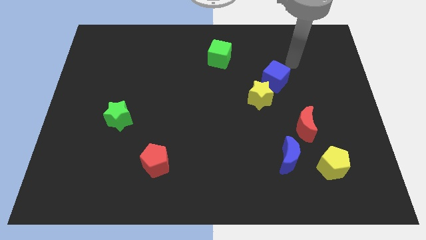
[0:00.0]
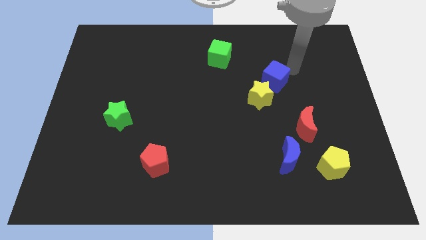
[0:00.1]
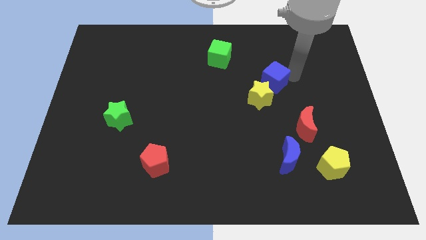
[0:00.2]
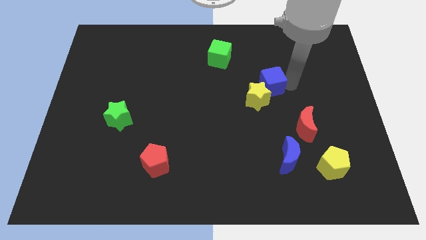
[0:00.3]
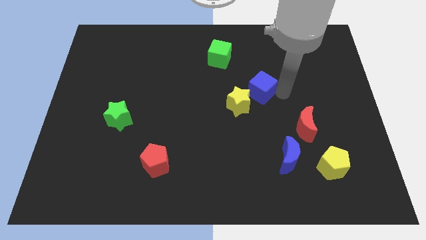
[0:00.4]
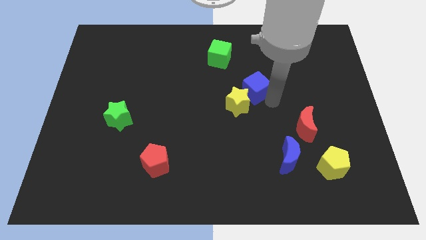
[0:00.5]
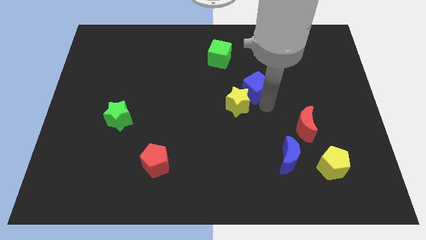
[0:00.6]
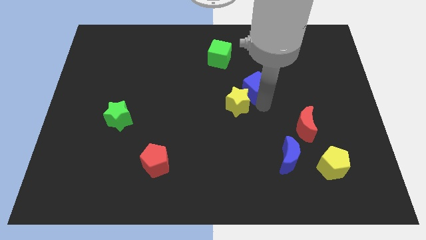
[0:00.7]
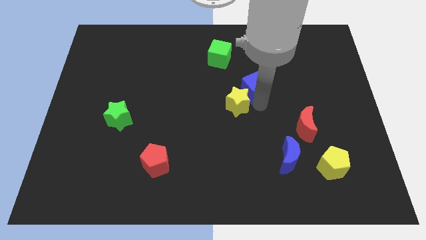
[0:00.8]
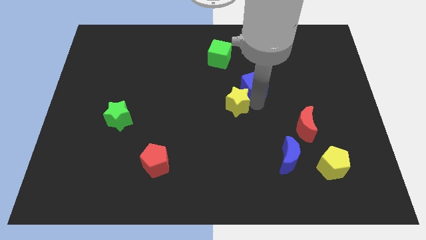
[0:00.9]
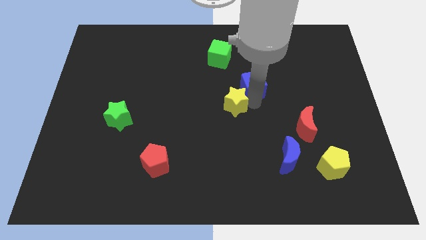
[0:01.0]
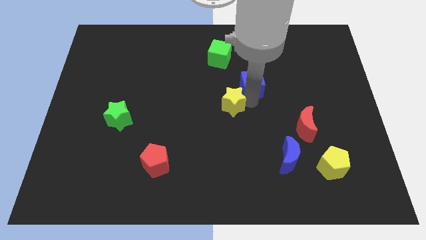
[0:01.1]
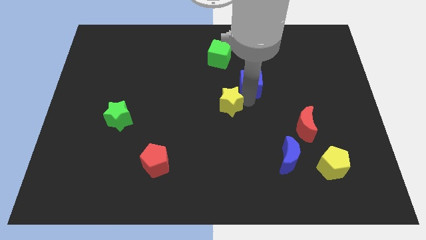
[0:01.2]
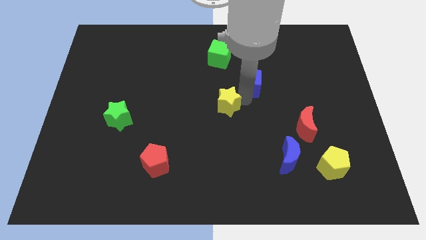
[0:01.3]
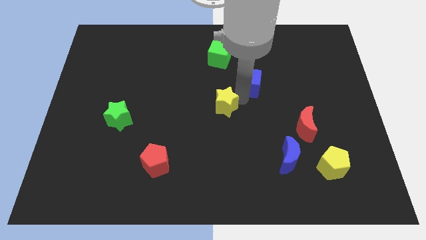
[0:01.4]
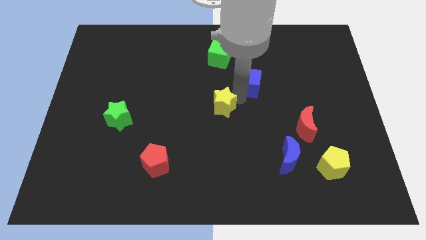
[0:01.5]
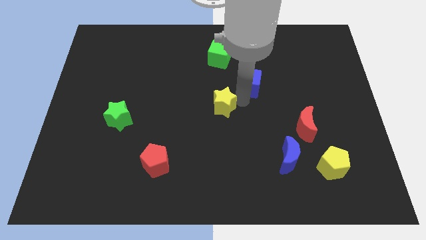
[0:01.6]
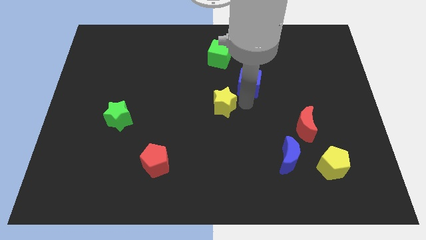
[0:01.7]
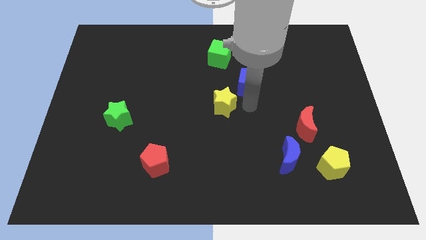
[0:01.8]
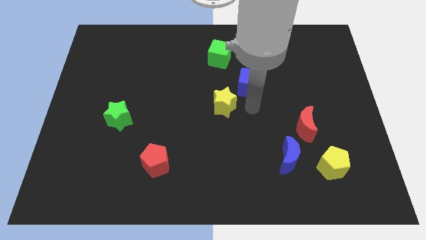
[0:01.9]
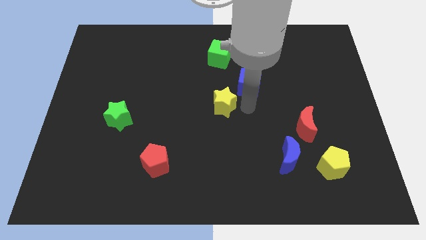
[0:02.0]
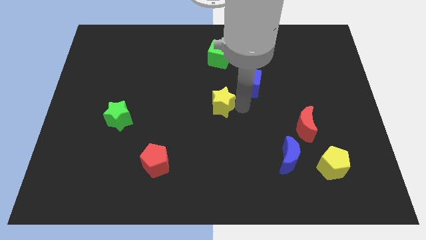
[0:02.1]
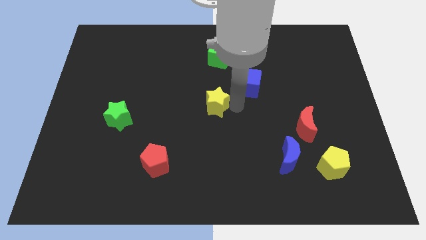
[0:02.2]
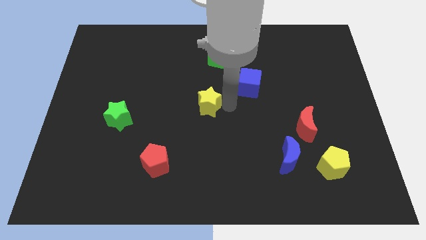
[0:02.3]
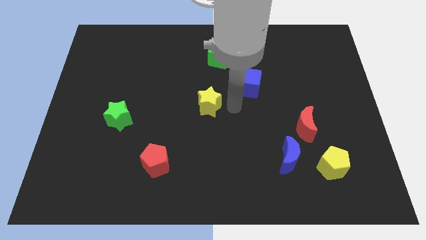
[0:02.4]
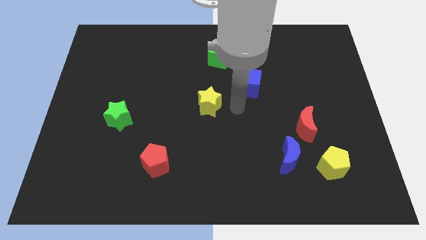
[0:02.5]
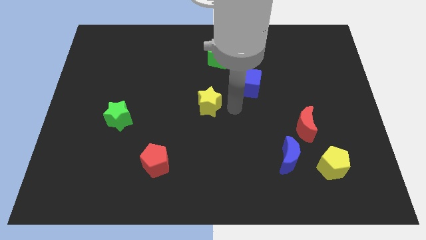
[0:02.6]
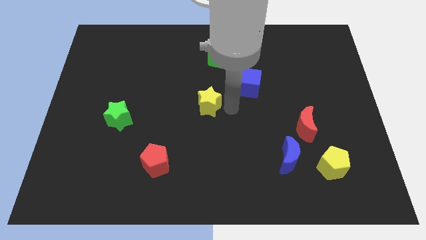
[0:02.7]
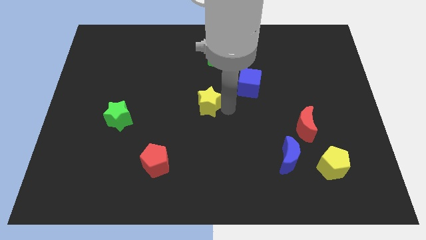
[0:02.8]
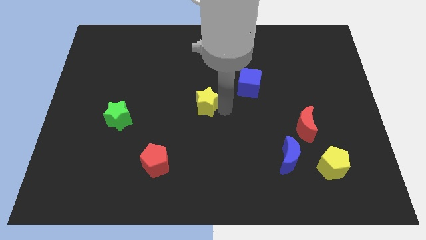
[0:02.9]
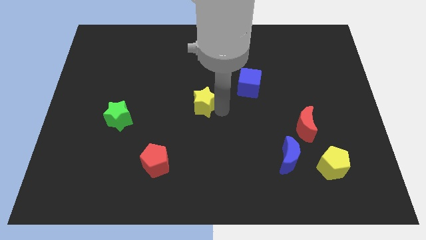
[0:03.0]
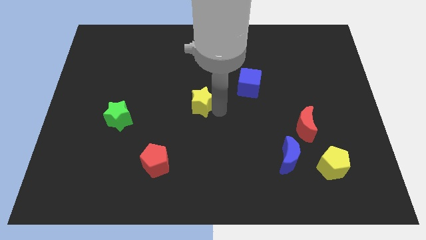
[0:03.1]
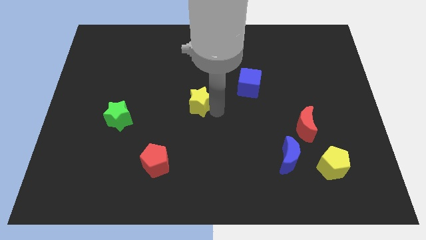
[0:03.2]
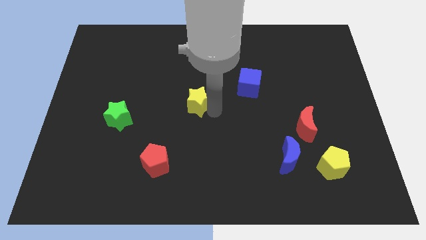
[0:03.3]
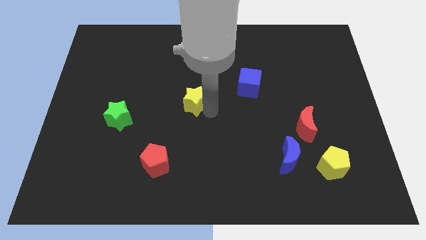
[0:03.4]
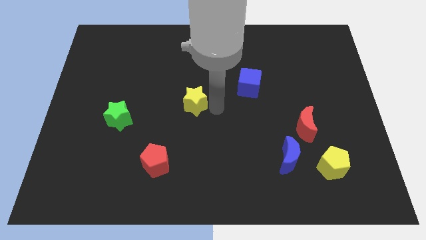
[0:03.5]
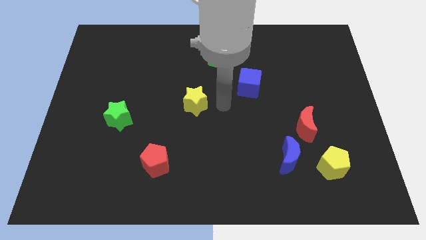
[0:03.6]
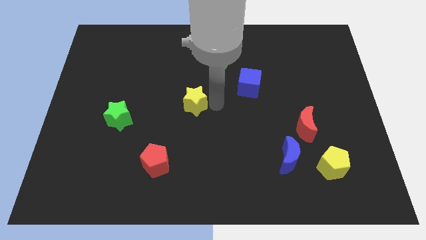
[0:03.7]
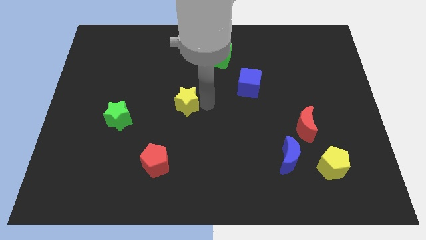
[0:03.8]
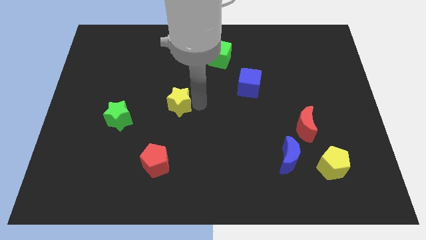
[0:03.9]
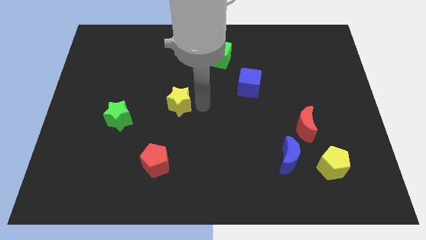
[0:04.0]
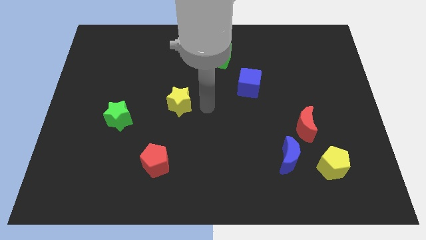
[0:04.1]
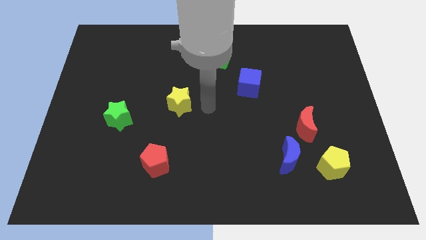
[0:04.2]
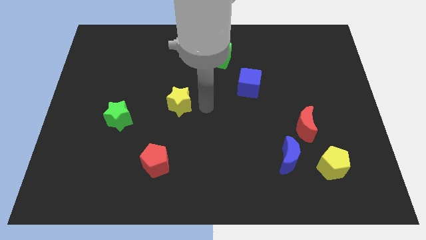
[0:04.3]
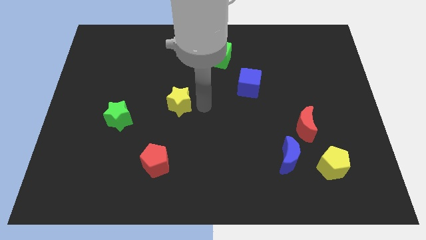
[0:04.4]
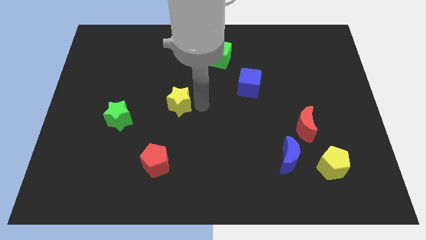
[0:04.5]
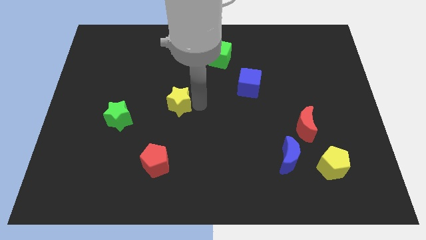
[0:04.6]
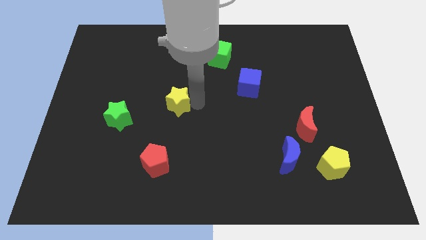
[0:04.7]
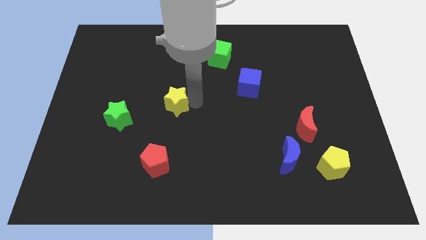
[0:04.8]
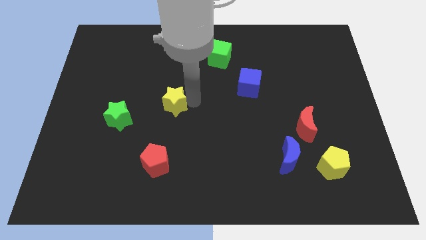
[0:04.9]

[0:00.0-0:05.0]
push the yellow star left

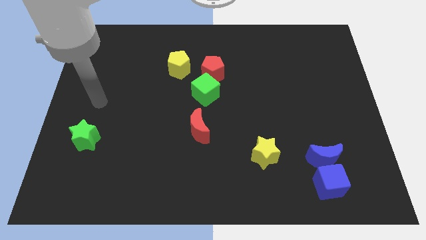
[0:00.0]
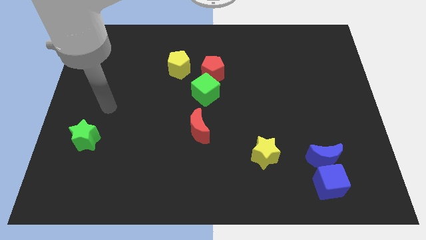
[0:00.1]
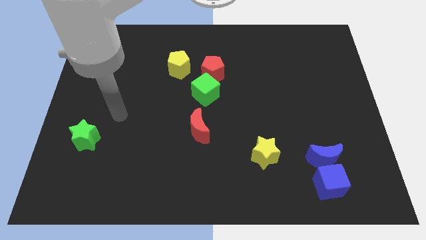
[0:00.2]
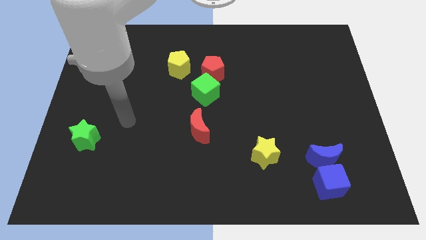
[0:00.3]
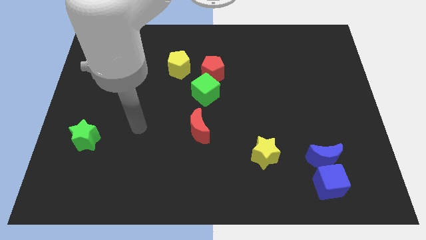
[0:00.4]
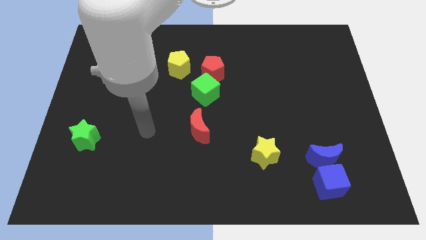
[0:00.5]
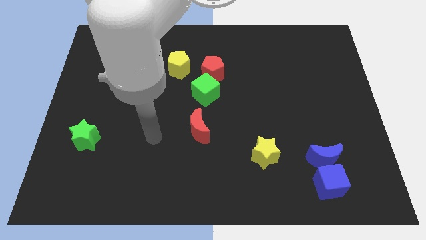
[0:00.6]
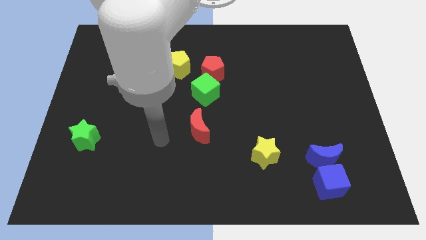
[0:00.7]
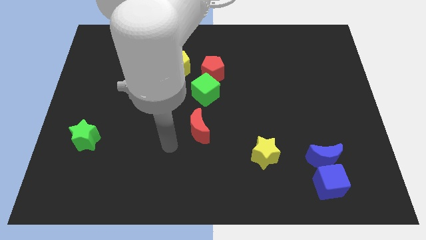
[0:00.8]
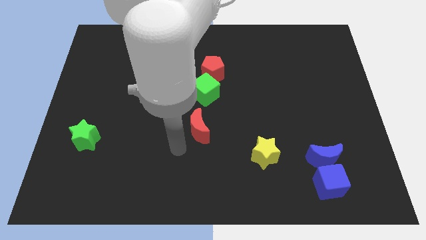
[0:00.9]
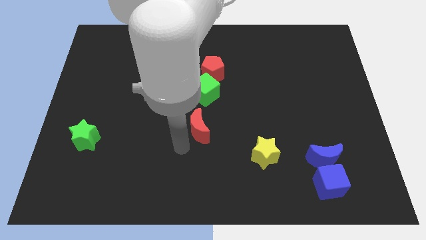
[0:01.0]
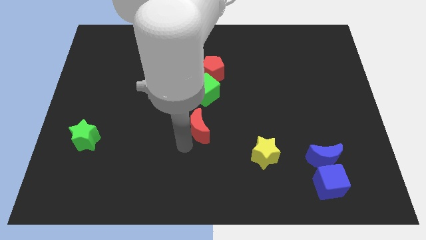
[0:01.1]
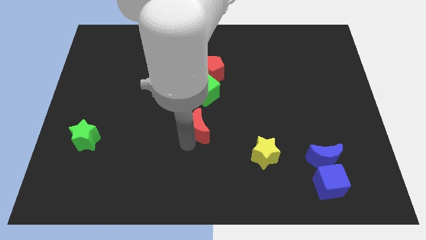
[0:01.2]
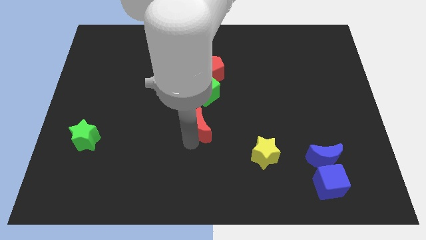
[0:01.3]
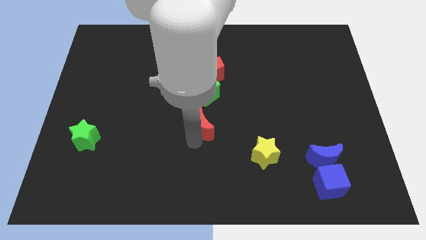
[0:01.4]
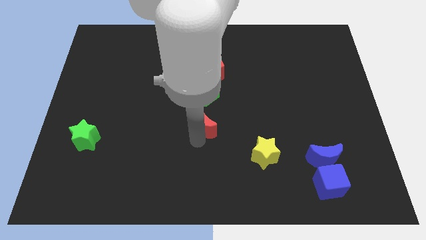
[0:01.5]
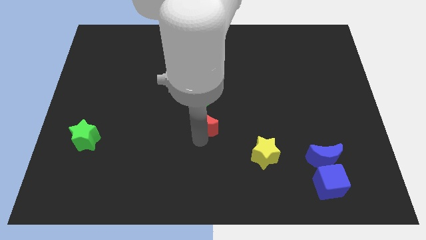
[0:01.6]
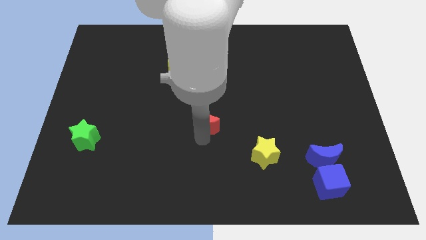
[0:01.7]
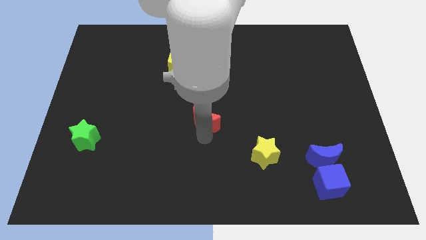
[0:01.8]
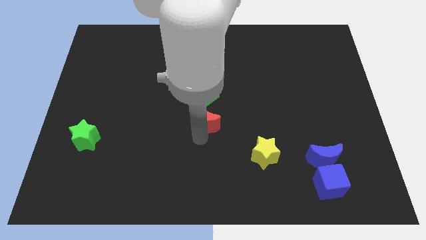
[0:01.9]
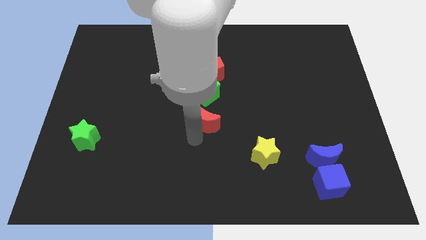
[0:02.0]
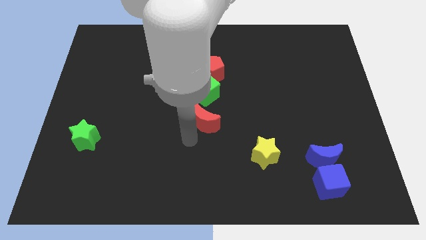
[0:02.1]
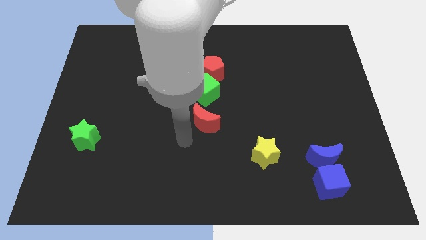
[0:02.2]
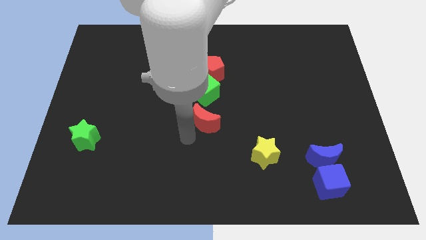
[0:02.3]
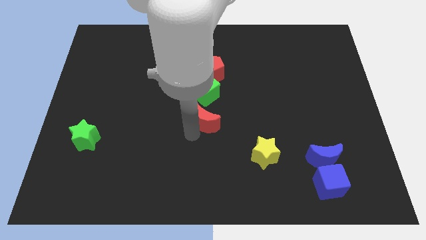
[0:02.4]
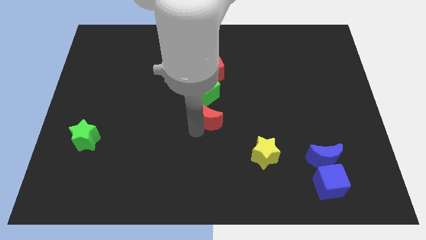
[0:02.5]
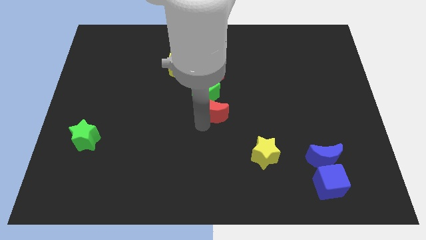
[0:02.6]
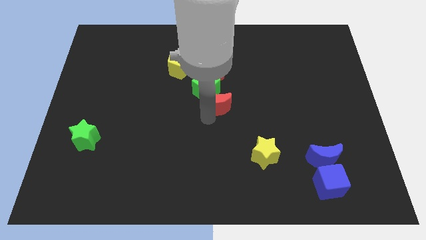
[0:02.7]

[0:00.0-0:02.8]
move the red moon slightly diagonally upwards and right

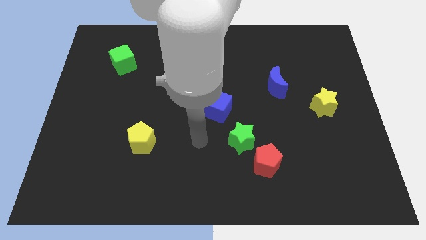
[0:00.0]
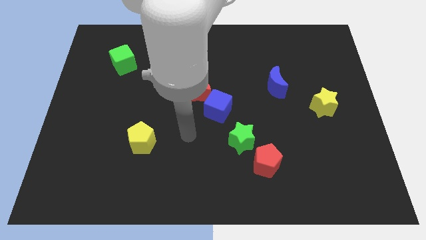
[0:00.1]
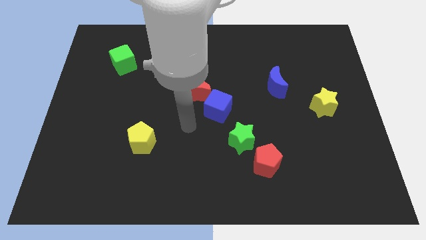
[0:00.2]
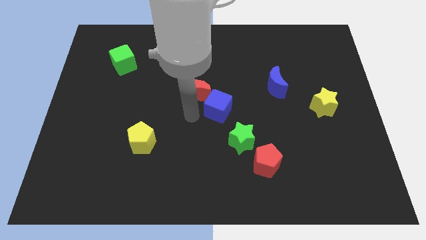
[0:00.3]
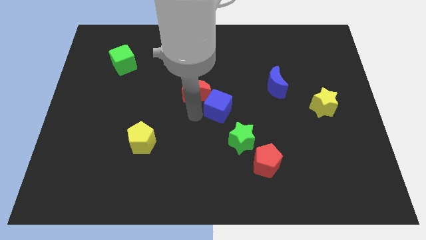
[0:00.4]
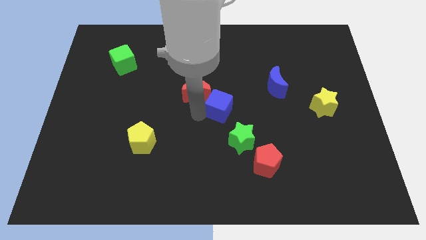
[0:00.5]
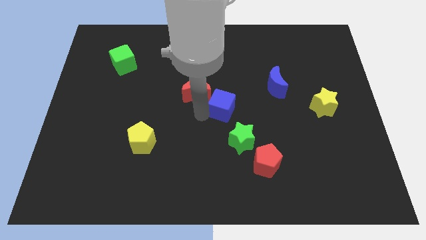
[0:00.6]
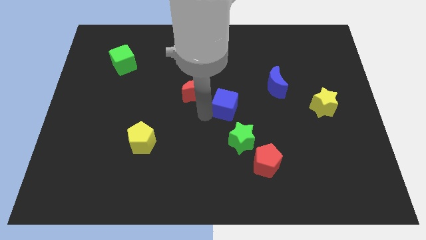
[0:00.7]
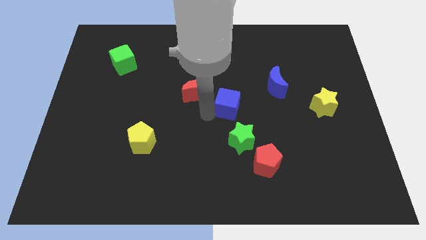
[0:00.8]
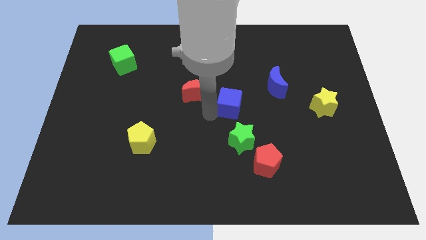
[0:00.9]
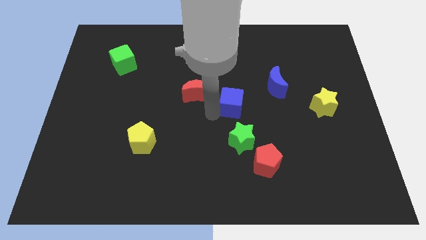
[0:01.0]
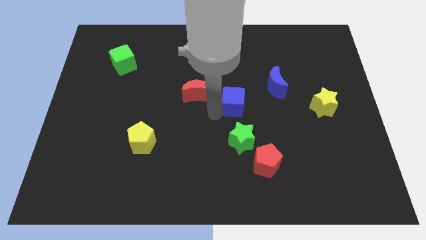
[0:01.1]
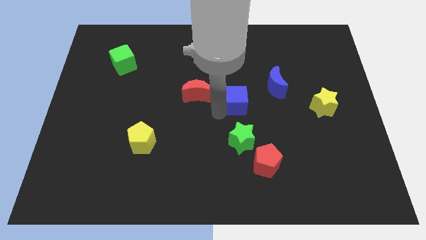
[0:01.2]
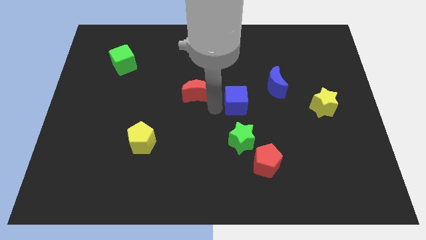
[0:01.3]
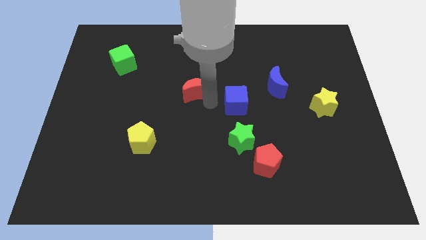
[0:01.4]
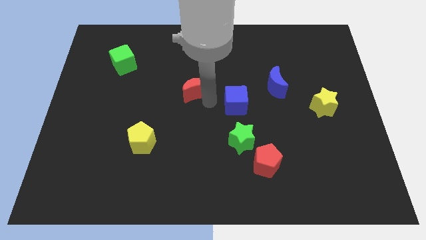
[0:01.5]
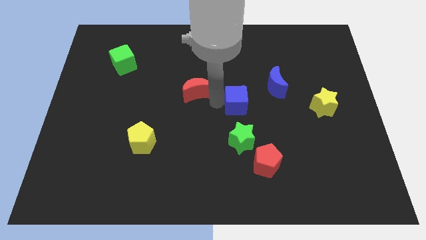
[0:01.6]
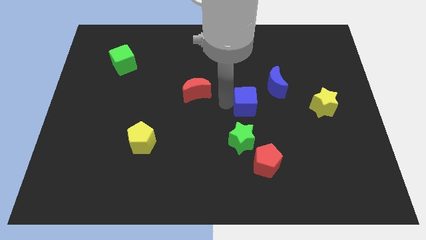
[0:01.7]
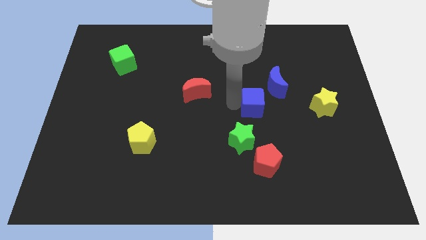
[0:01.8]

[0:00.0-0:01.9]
push the blue cube slightly to the right
